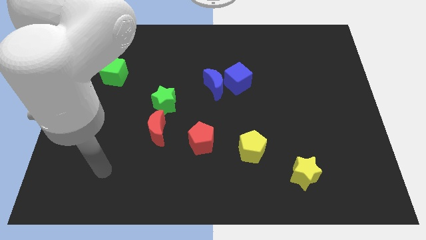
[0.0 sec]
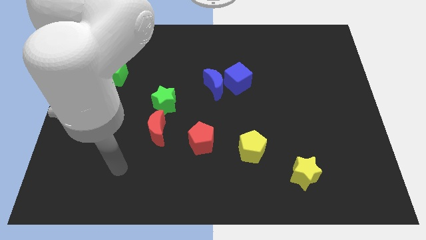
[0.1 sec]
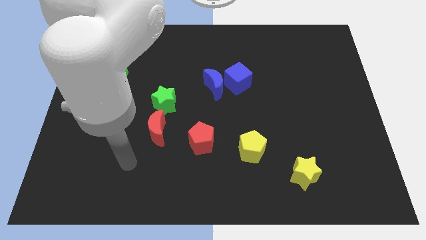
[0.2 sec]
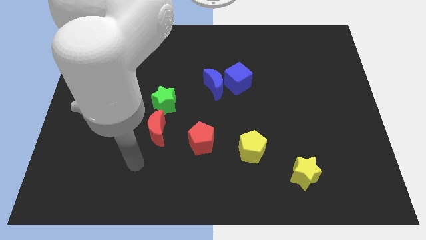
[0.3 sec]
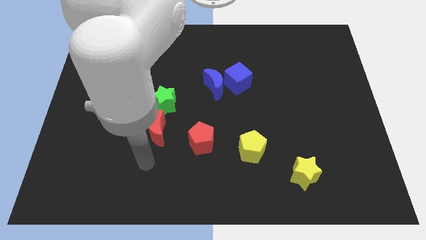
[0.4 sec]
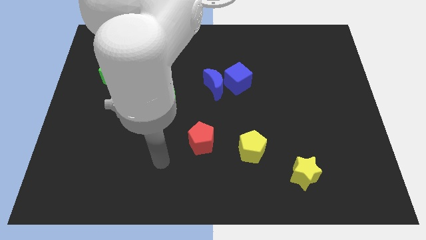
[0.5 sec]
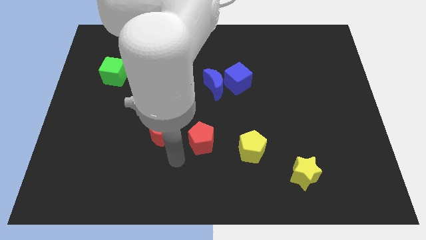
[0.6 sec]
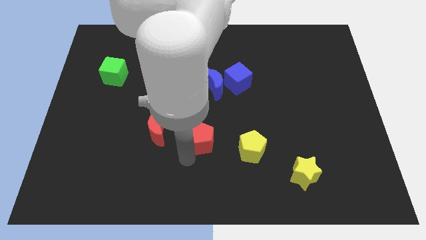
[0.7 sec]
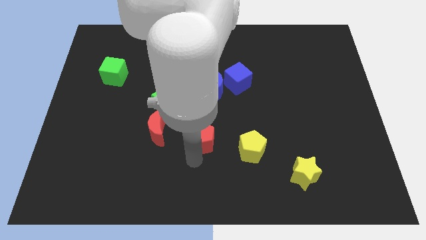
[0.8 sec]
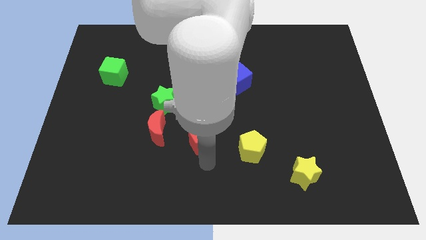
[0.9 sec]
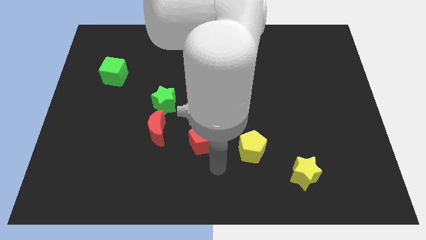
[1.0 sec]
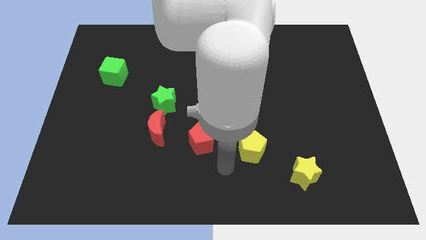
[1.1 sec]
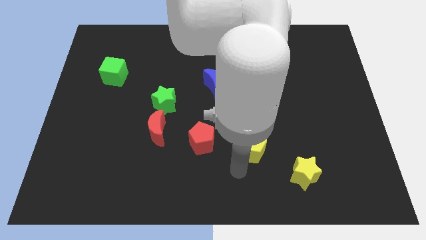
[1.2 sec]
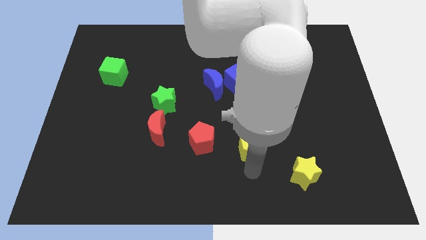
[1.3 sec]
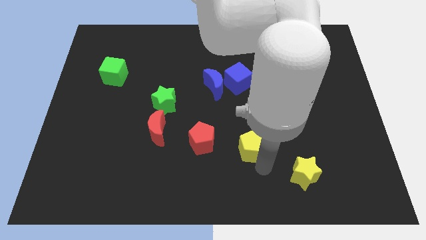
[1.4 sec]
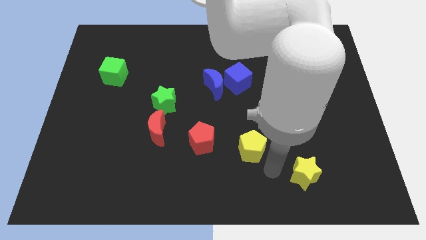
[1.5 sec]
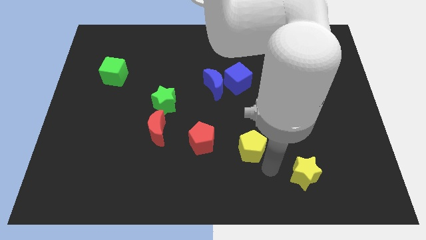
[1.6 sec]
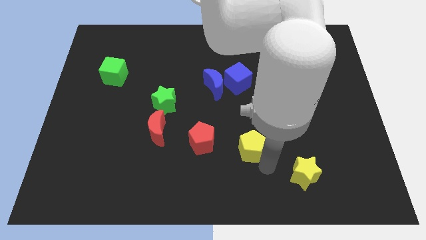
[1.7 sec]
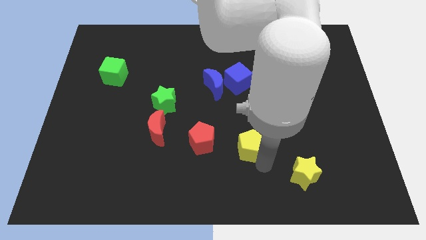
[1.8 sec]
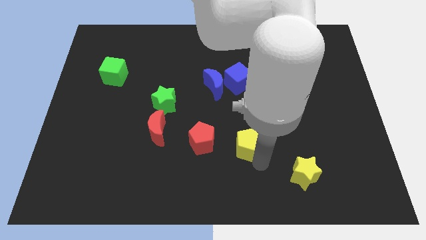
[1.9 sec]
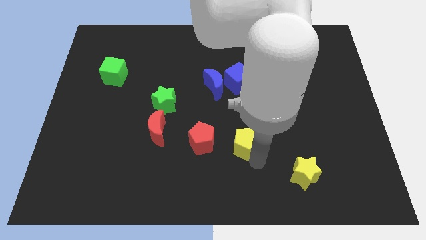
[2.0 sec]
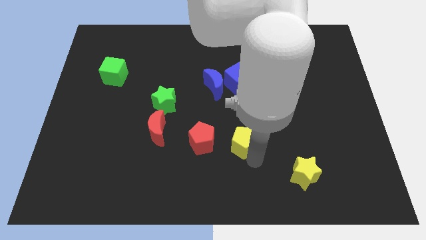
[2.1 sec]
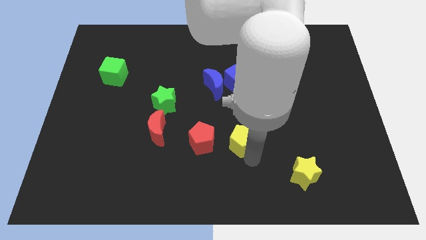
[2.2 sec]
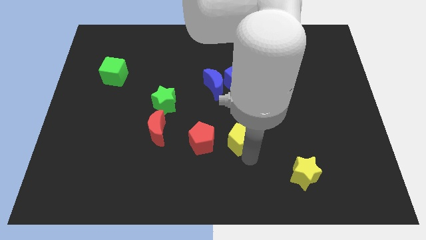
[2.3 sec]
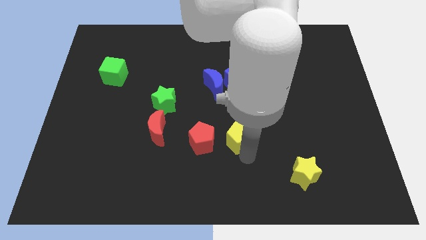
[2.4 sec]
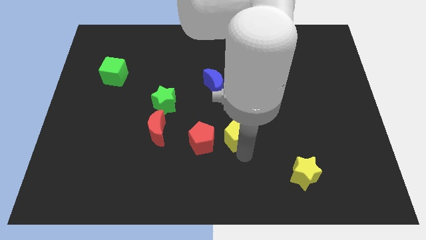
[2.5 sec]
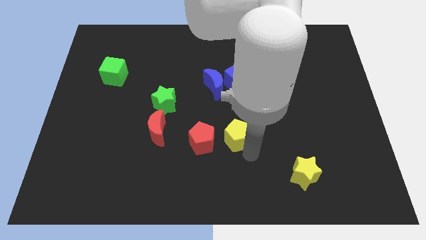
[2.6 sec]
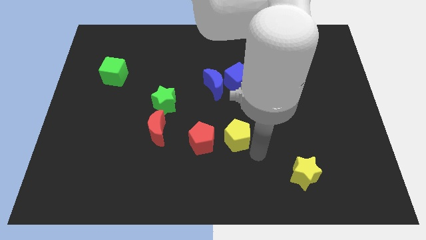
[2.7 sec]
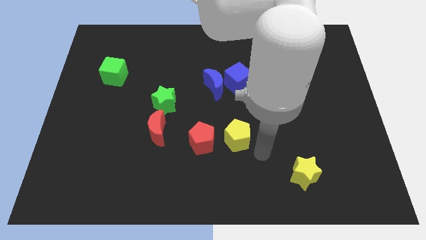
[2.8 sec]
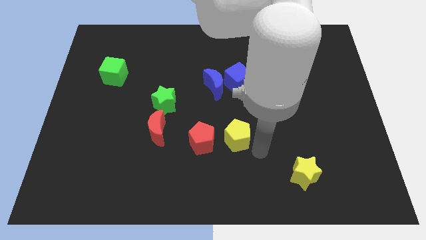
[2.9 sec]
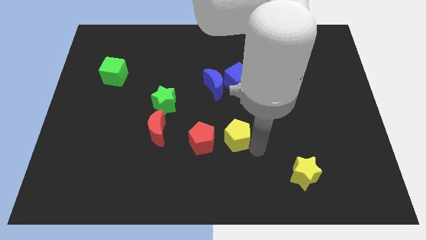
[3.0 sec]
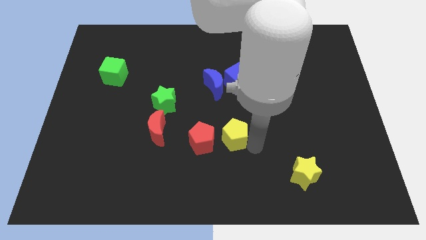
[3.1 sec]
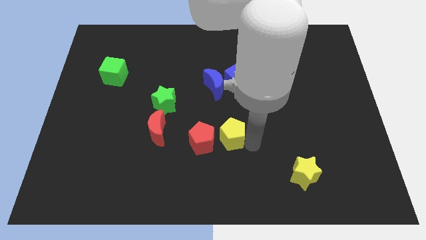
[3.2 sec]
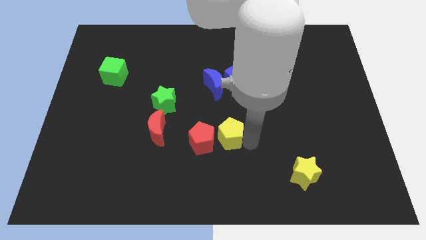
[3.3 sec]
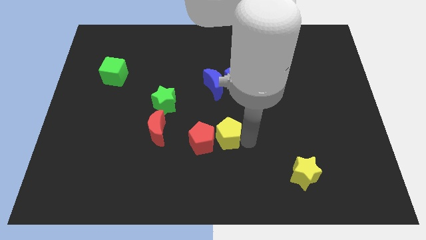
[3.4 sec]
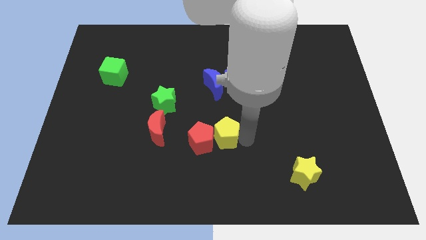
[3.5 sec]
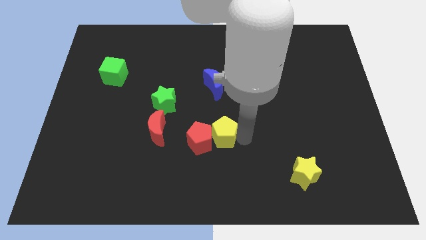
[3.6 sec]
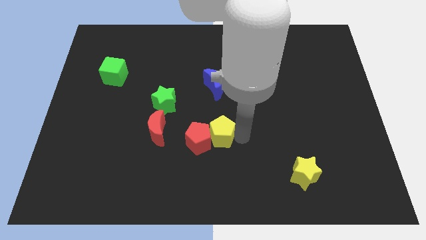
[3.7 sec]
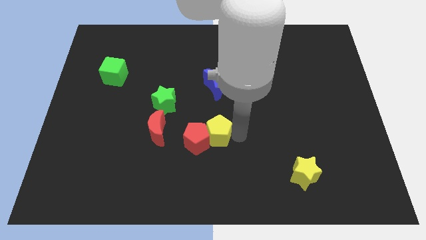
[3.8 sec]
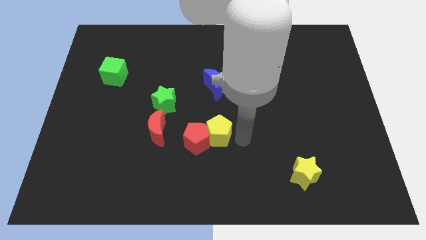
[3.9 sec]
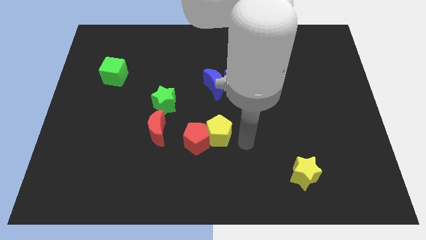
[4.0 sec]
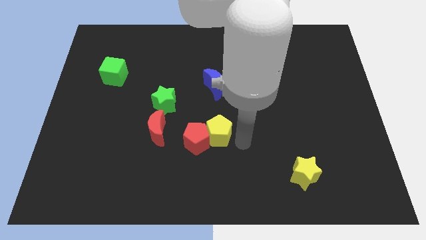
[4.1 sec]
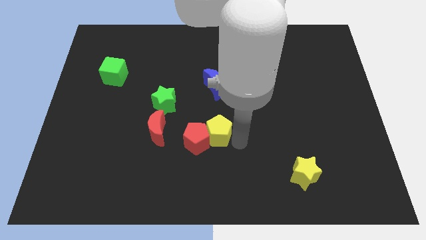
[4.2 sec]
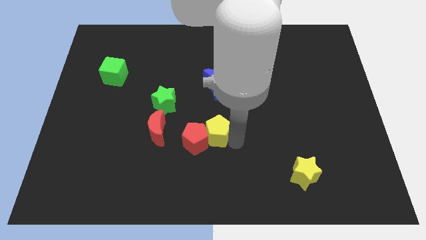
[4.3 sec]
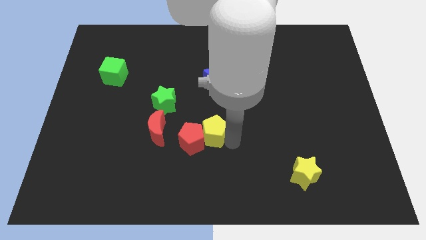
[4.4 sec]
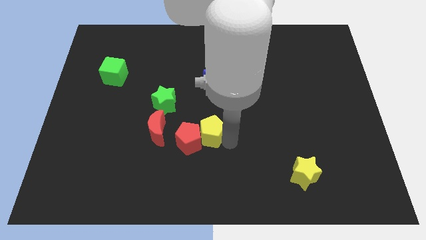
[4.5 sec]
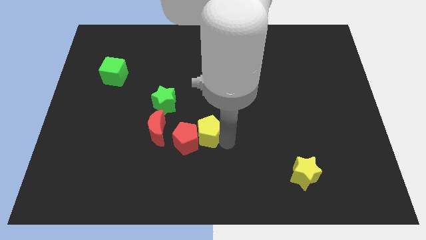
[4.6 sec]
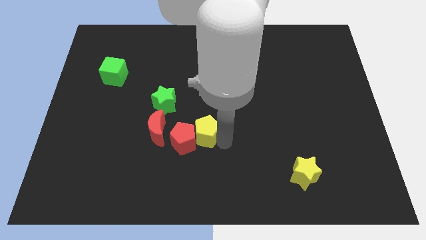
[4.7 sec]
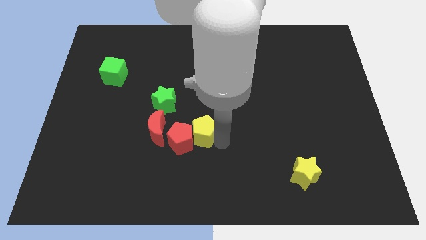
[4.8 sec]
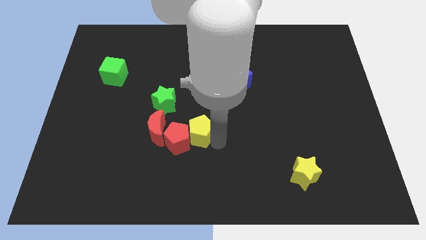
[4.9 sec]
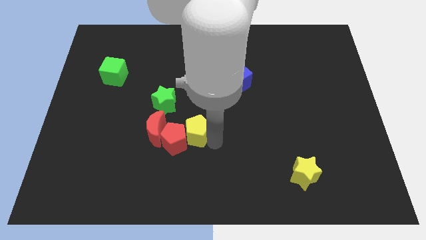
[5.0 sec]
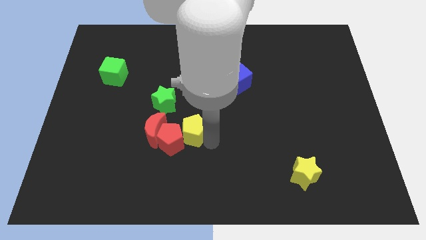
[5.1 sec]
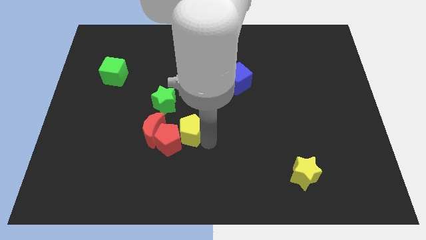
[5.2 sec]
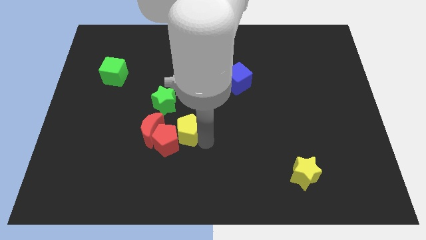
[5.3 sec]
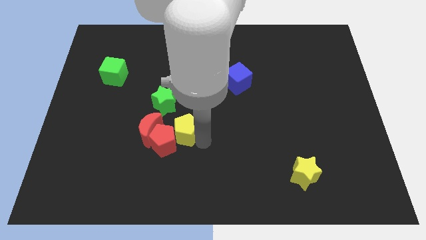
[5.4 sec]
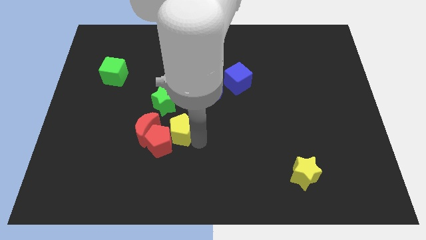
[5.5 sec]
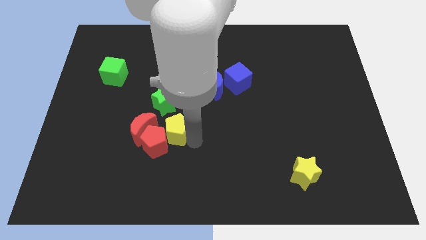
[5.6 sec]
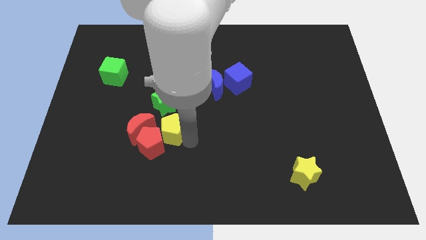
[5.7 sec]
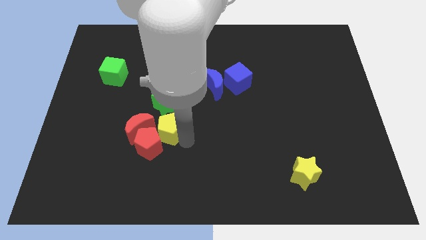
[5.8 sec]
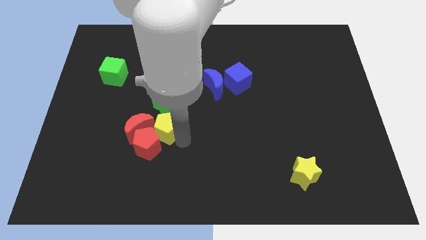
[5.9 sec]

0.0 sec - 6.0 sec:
move the yellow pentagon to the red moon

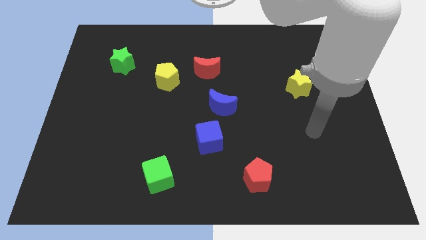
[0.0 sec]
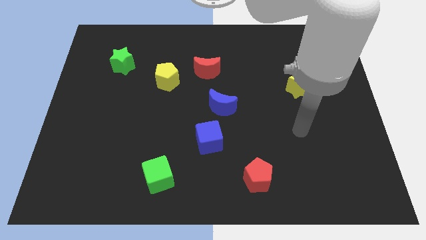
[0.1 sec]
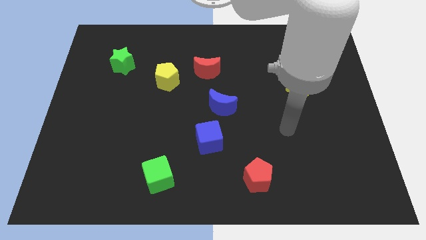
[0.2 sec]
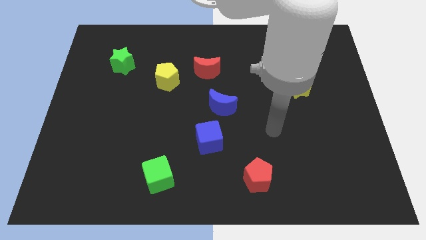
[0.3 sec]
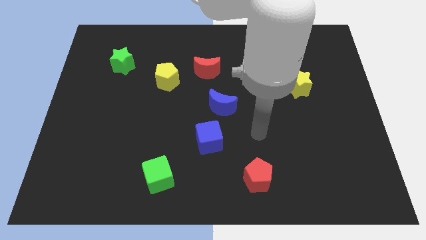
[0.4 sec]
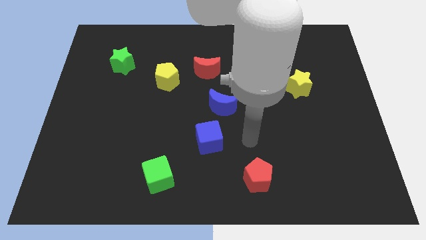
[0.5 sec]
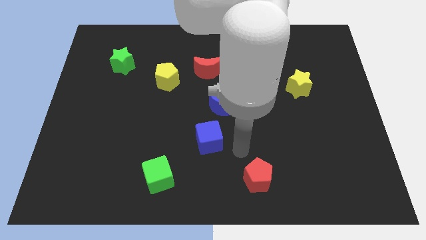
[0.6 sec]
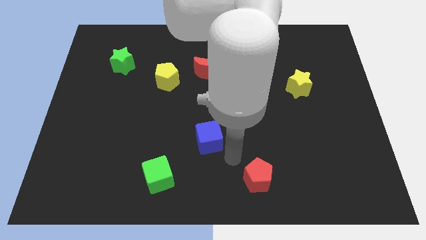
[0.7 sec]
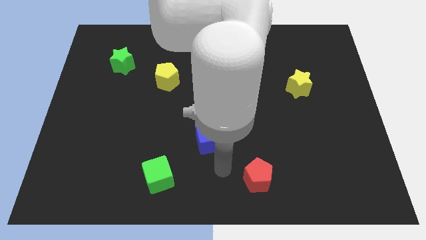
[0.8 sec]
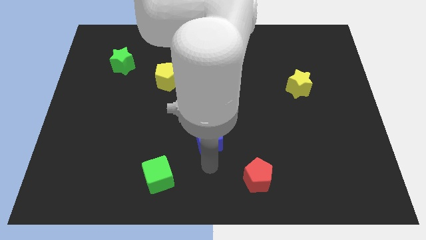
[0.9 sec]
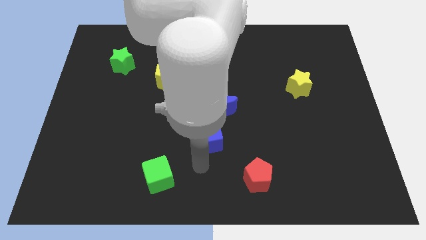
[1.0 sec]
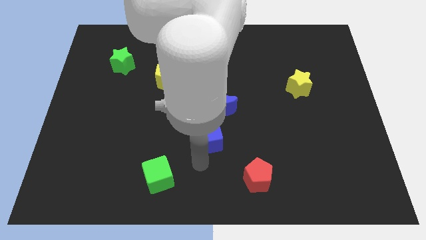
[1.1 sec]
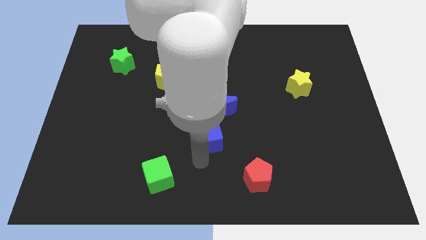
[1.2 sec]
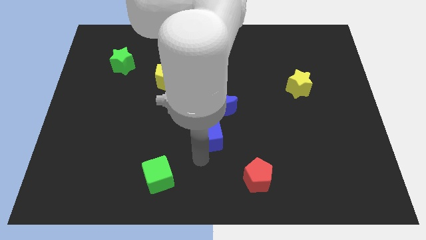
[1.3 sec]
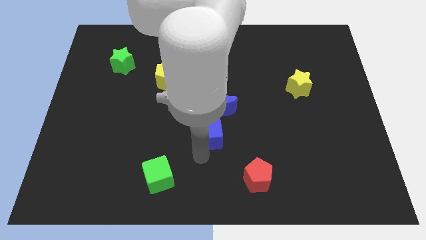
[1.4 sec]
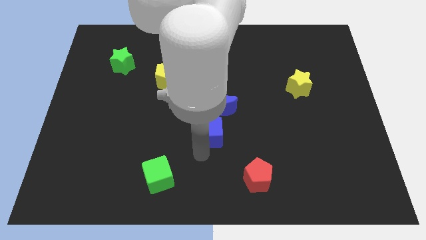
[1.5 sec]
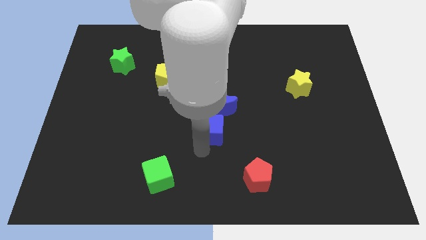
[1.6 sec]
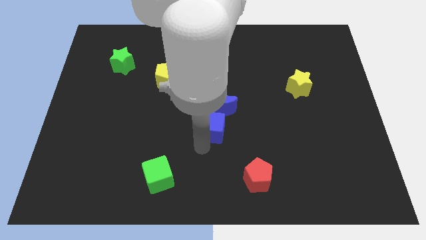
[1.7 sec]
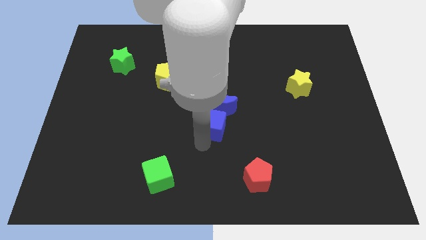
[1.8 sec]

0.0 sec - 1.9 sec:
push the blue cube to the blue moon

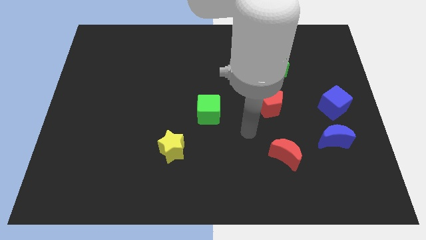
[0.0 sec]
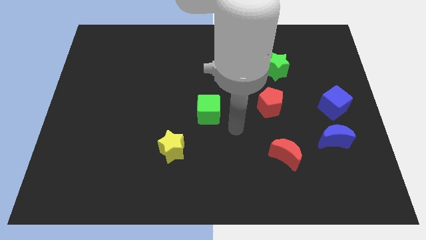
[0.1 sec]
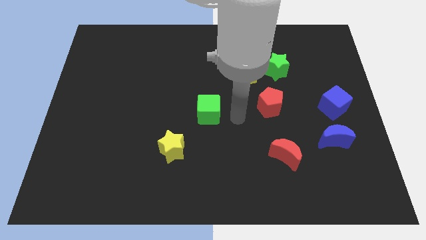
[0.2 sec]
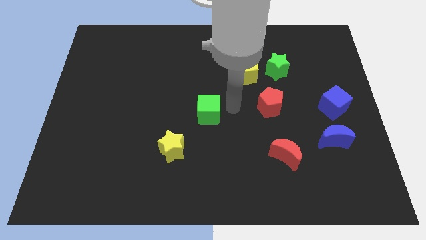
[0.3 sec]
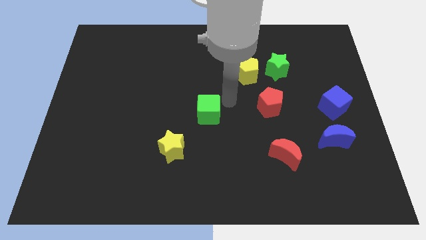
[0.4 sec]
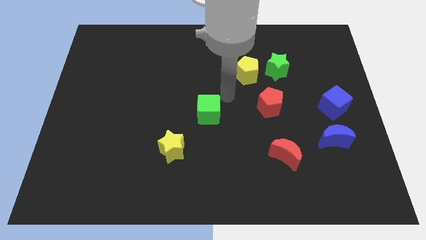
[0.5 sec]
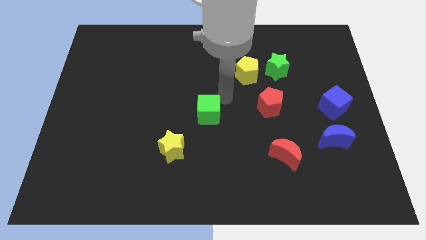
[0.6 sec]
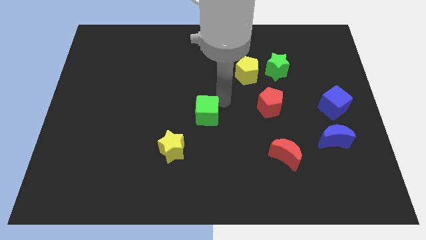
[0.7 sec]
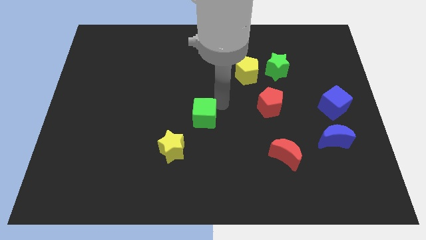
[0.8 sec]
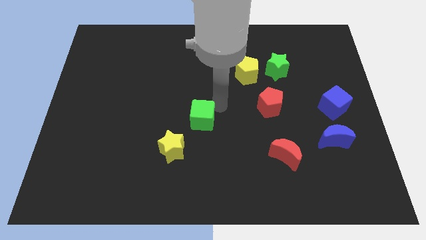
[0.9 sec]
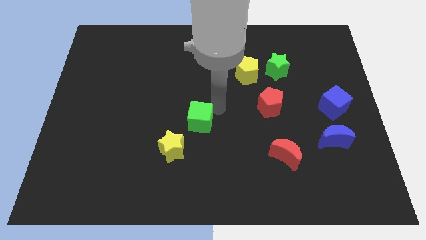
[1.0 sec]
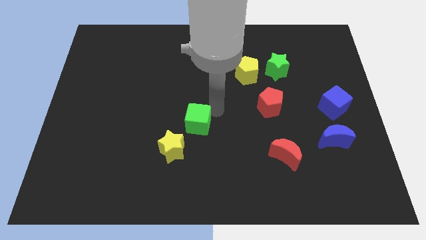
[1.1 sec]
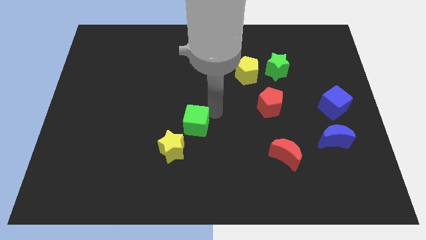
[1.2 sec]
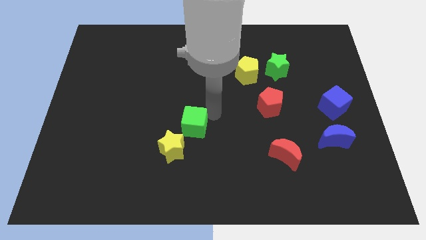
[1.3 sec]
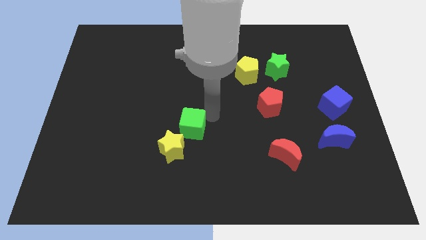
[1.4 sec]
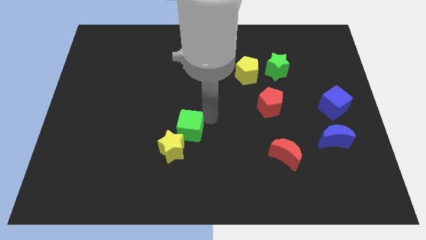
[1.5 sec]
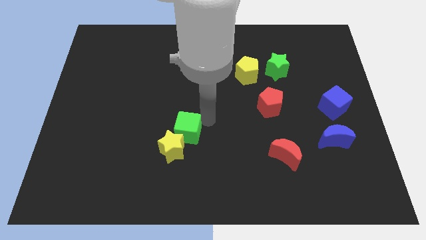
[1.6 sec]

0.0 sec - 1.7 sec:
slide the green cube next to the yellow star
